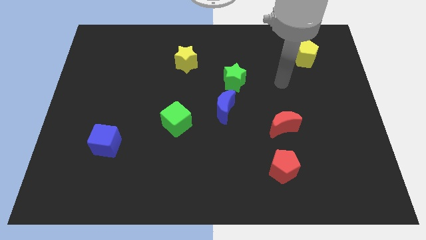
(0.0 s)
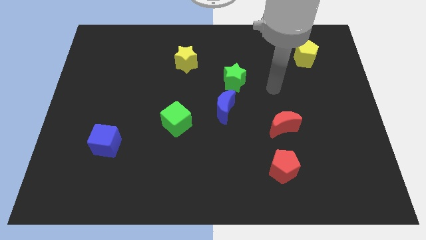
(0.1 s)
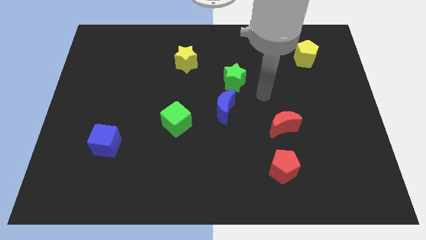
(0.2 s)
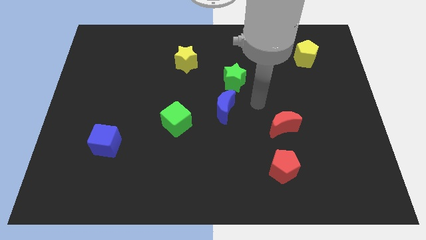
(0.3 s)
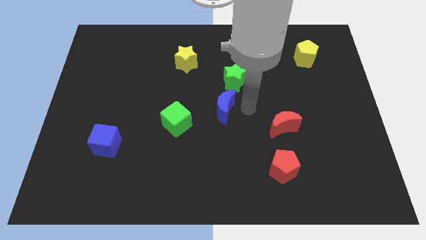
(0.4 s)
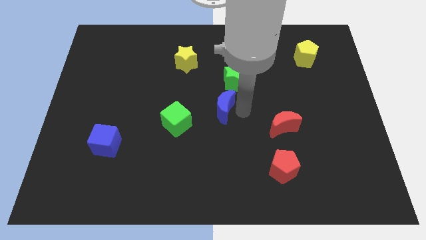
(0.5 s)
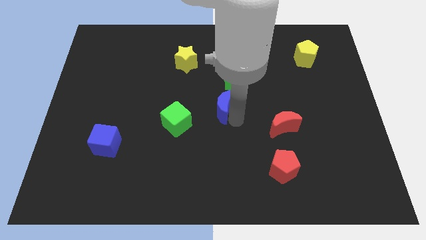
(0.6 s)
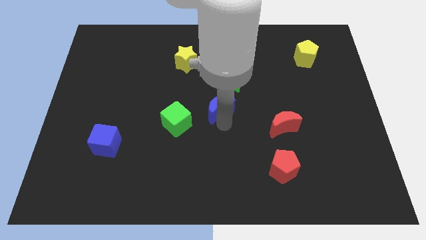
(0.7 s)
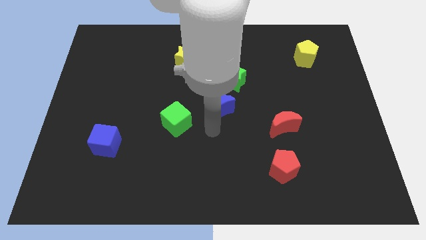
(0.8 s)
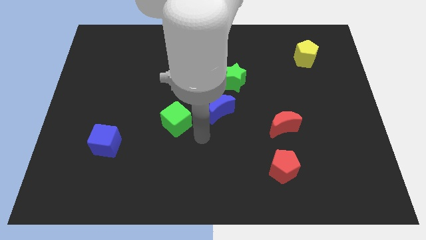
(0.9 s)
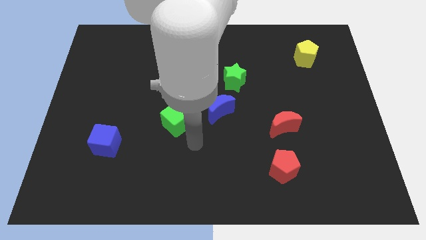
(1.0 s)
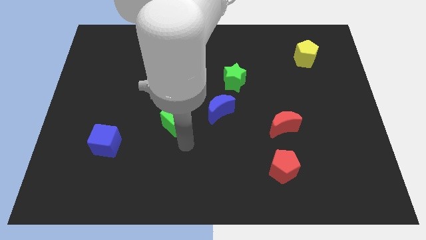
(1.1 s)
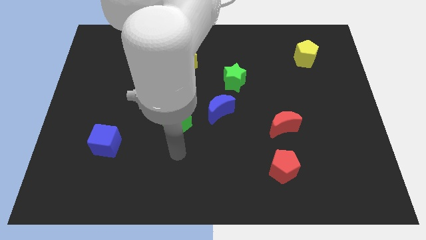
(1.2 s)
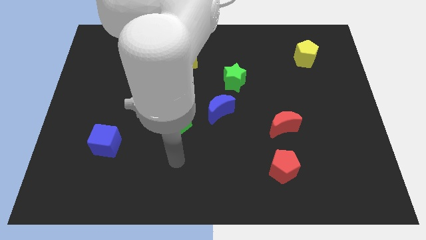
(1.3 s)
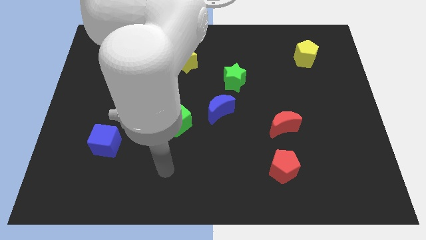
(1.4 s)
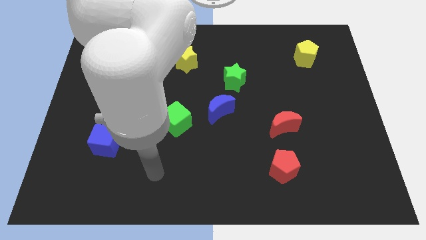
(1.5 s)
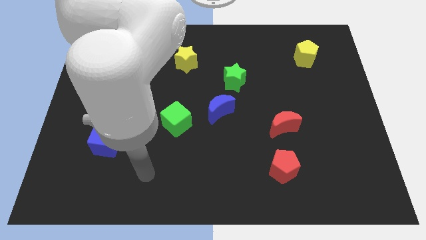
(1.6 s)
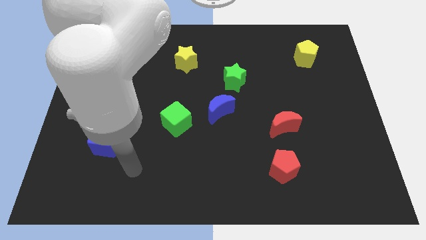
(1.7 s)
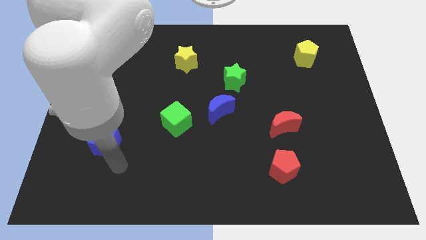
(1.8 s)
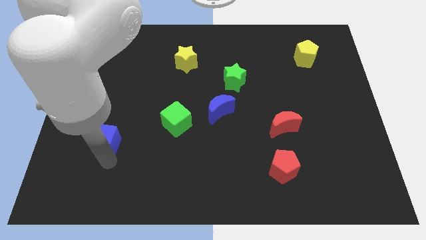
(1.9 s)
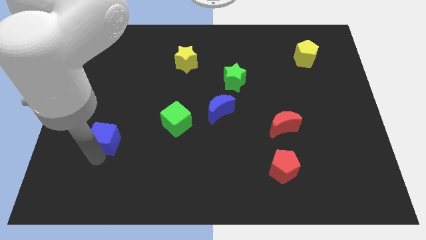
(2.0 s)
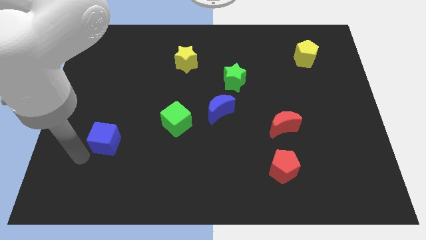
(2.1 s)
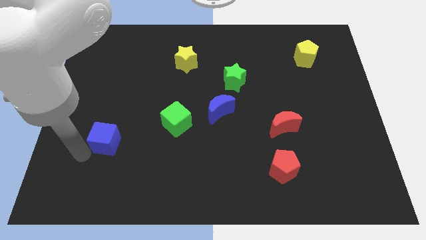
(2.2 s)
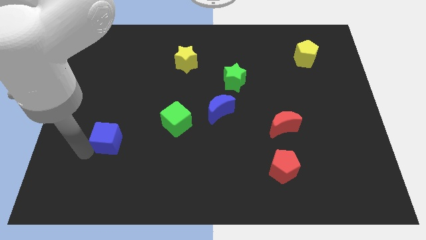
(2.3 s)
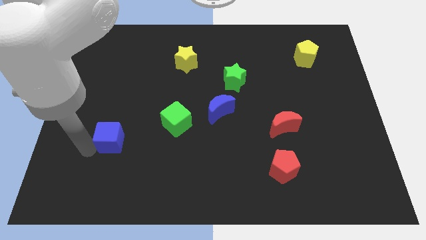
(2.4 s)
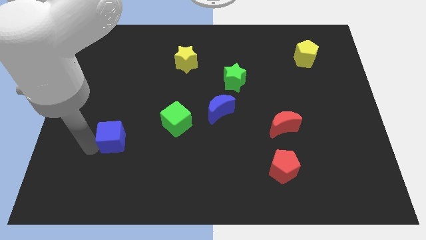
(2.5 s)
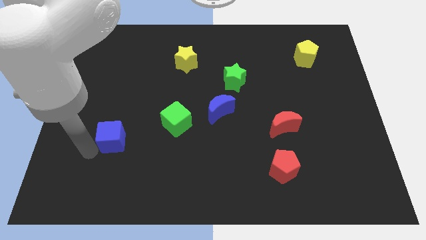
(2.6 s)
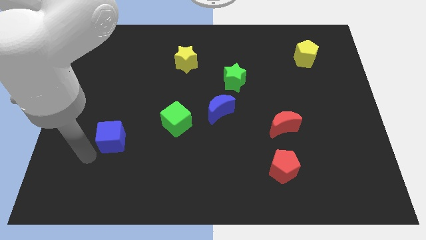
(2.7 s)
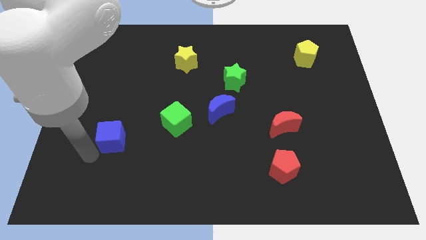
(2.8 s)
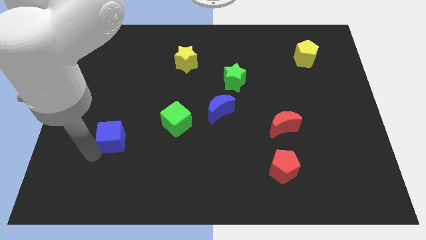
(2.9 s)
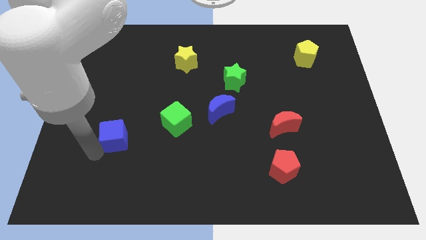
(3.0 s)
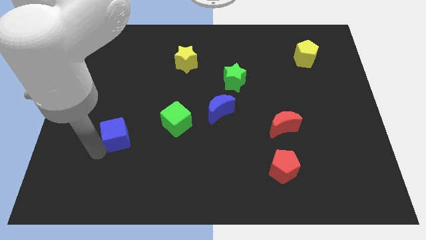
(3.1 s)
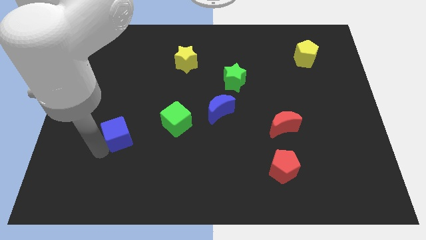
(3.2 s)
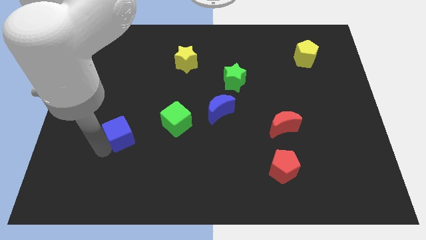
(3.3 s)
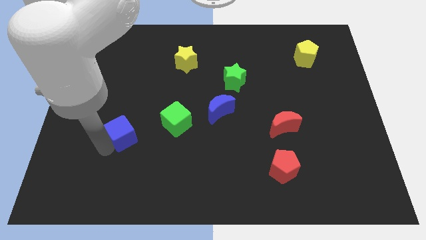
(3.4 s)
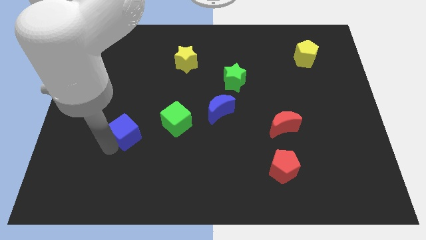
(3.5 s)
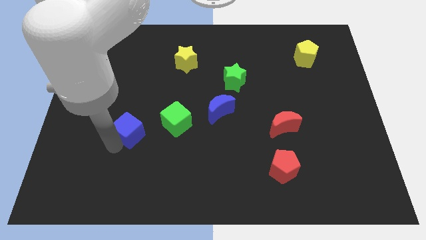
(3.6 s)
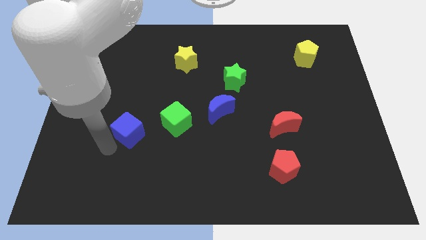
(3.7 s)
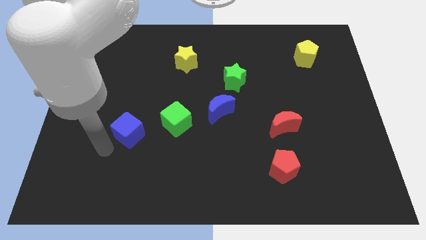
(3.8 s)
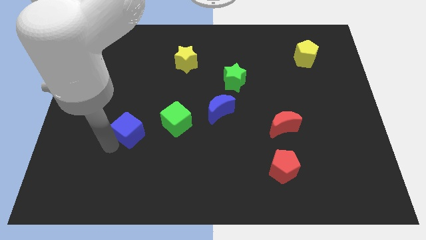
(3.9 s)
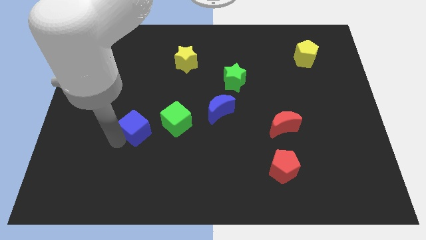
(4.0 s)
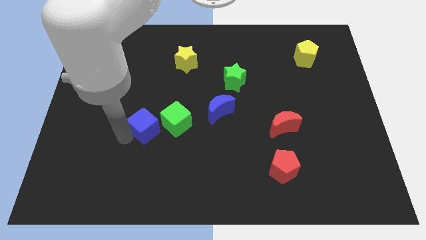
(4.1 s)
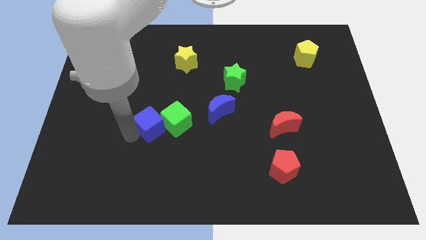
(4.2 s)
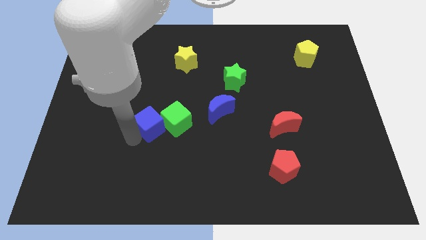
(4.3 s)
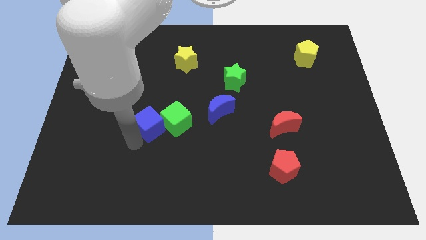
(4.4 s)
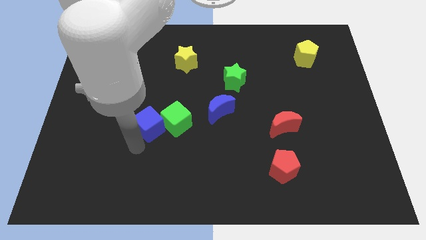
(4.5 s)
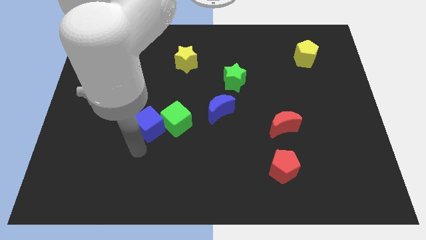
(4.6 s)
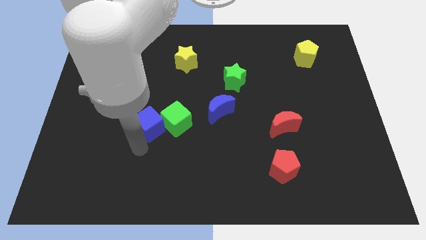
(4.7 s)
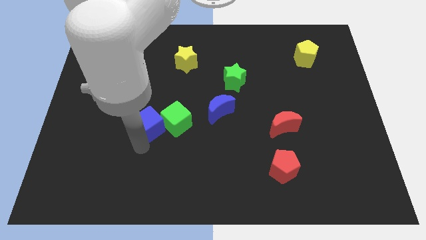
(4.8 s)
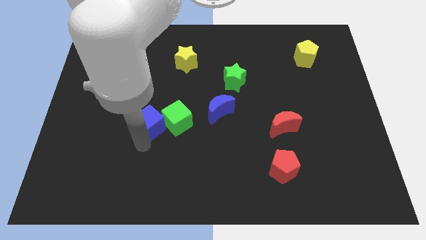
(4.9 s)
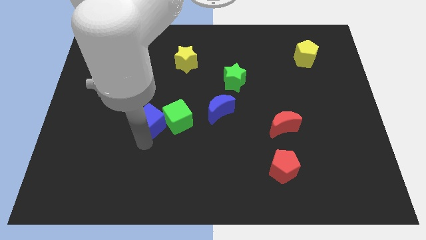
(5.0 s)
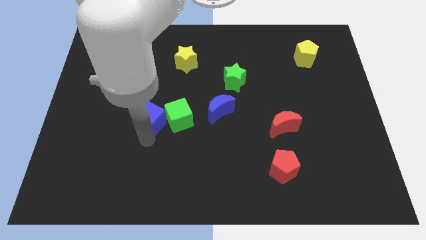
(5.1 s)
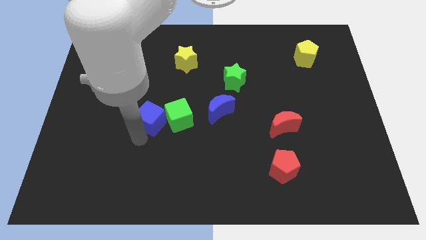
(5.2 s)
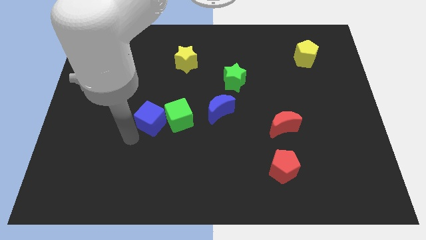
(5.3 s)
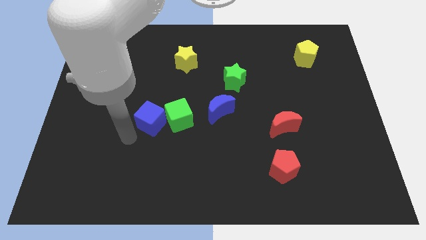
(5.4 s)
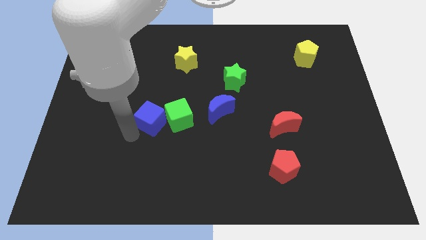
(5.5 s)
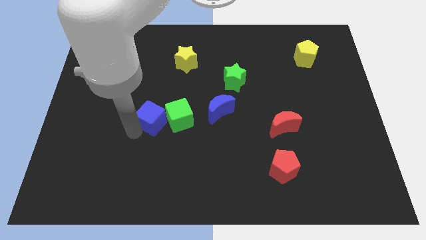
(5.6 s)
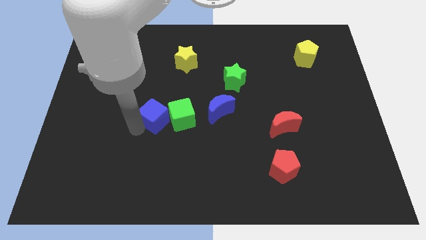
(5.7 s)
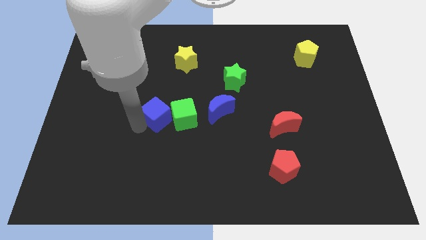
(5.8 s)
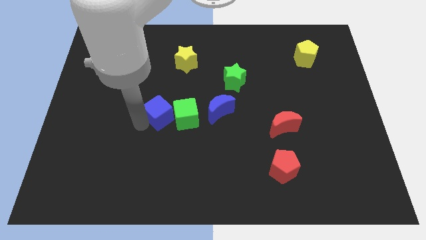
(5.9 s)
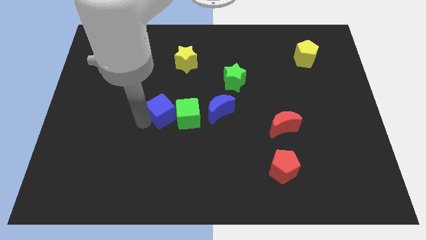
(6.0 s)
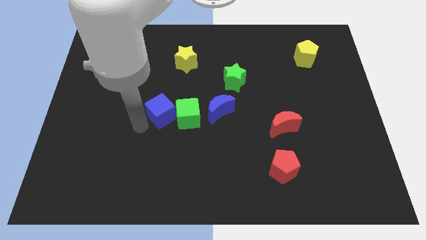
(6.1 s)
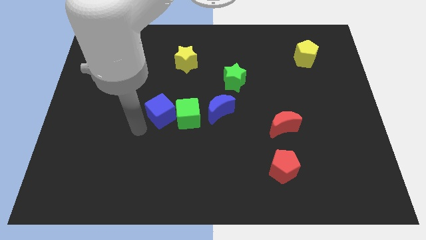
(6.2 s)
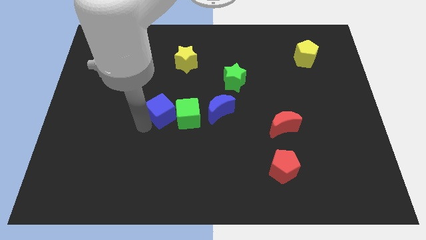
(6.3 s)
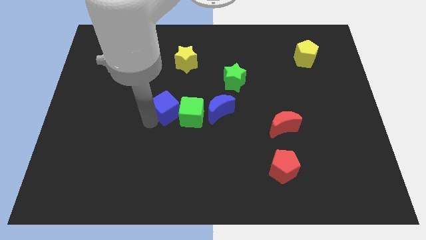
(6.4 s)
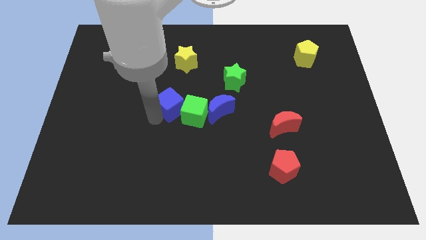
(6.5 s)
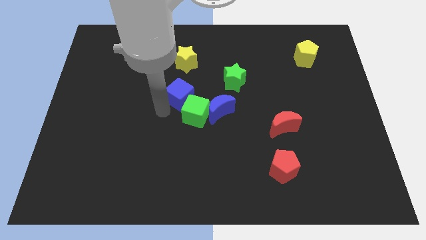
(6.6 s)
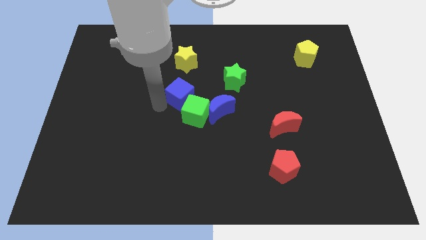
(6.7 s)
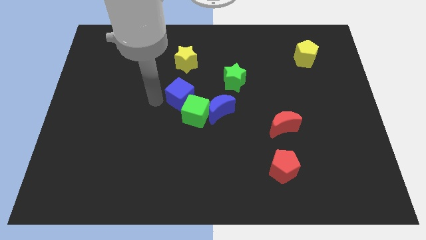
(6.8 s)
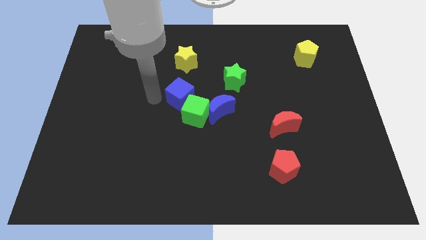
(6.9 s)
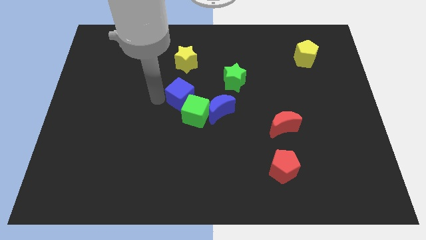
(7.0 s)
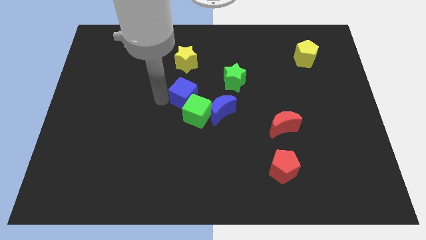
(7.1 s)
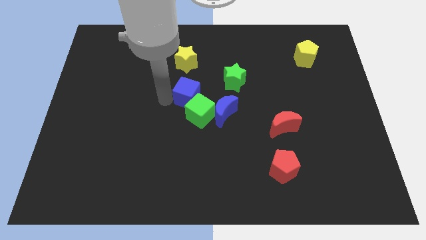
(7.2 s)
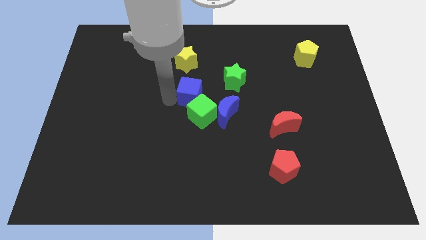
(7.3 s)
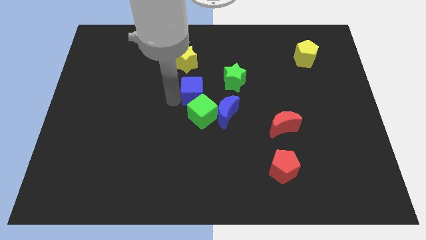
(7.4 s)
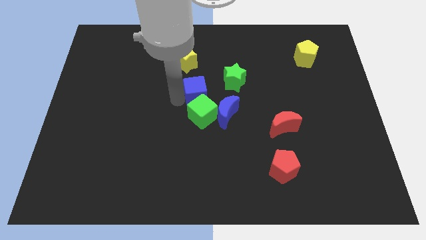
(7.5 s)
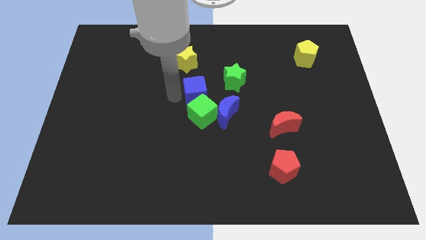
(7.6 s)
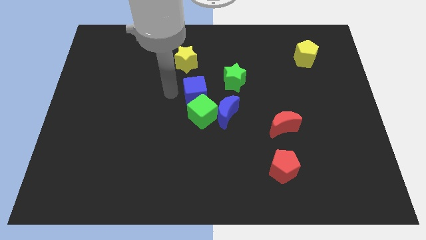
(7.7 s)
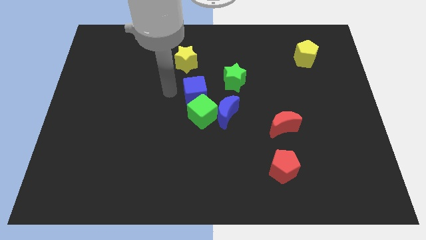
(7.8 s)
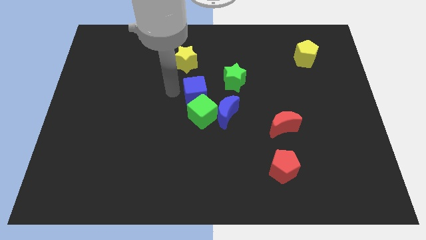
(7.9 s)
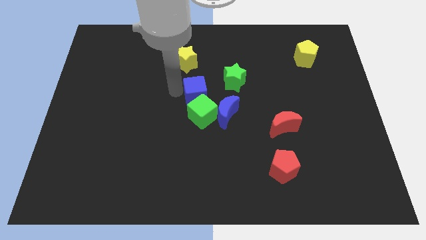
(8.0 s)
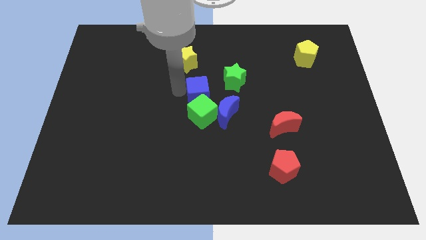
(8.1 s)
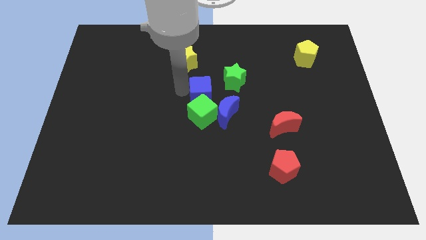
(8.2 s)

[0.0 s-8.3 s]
slide the blue cube to the top right of the green cube
